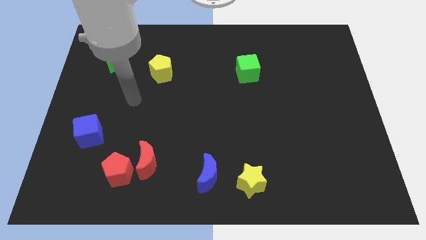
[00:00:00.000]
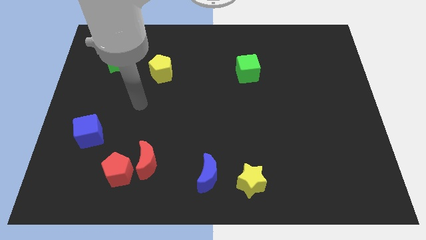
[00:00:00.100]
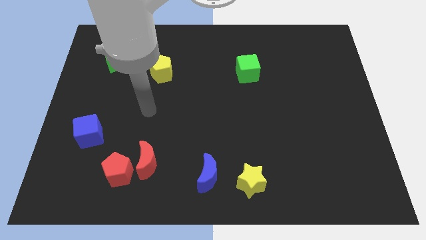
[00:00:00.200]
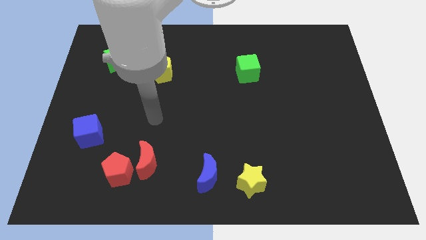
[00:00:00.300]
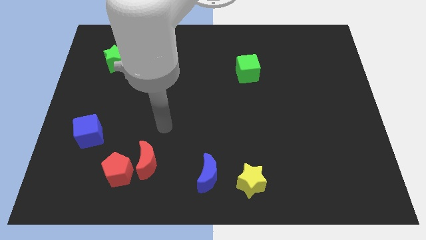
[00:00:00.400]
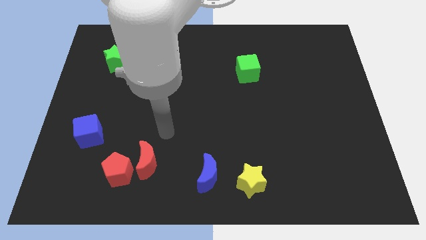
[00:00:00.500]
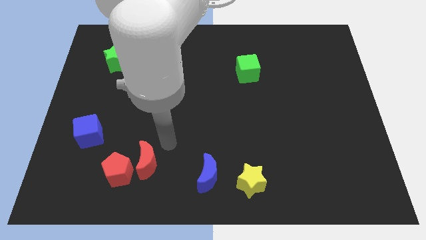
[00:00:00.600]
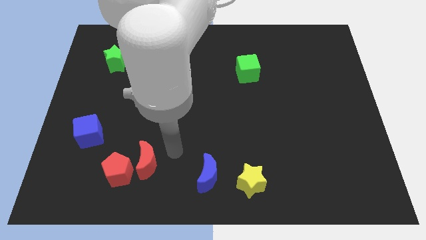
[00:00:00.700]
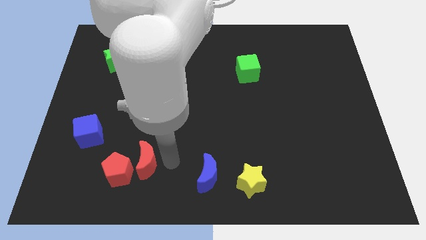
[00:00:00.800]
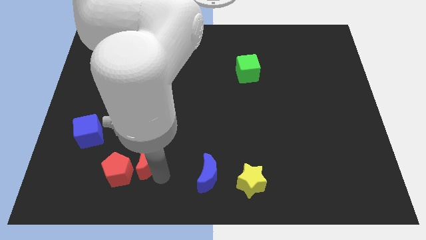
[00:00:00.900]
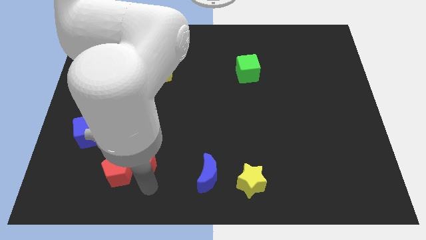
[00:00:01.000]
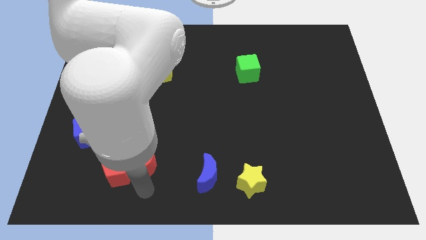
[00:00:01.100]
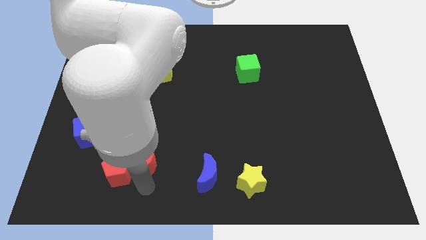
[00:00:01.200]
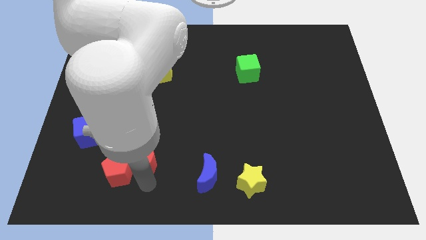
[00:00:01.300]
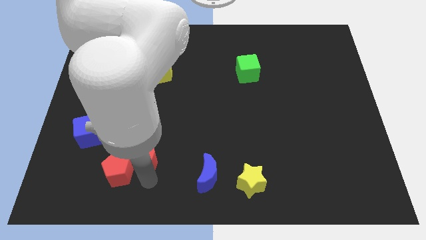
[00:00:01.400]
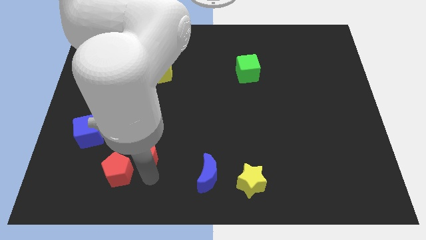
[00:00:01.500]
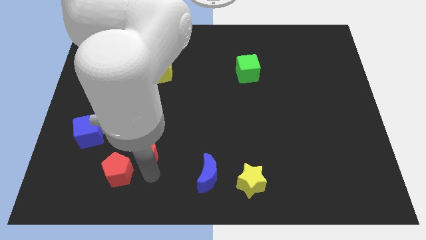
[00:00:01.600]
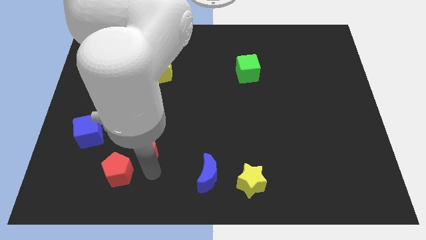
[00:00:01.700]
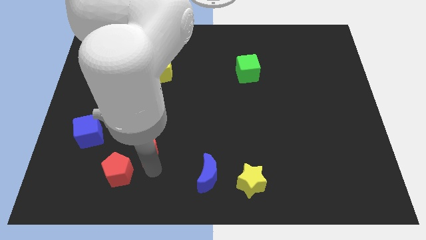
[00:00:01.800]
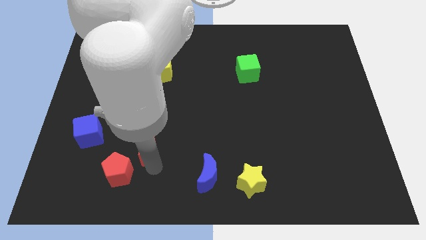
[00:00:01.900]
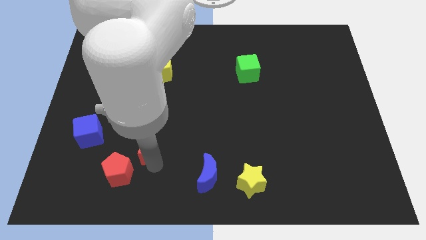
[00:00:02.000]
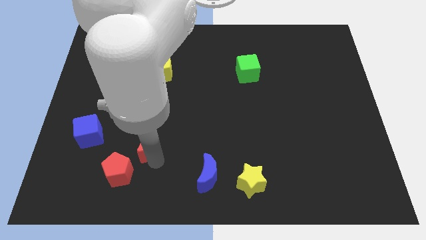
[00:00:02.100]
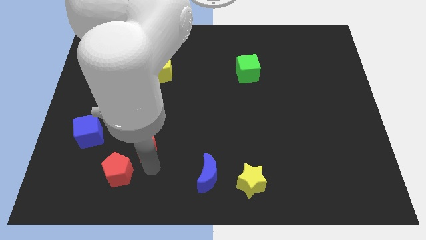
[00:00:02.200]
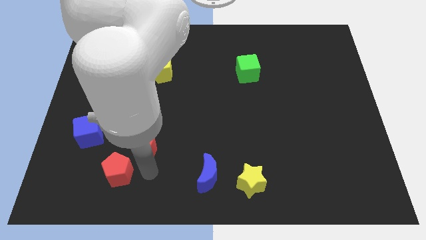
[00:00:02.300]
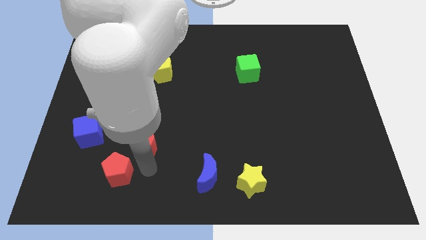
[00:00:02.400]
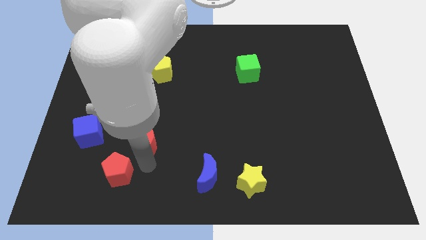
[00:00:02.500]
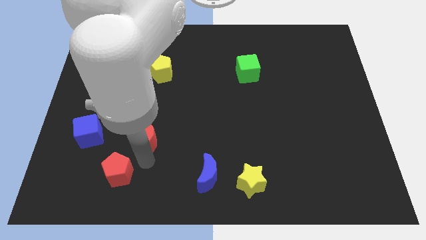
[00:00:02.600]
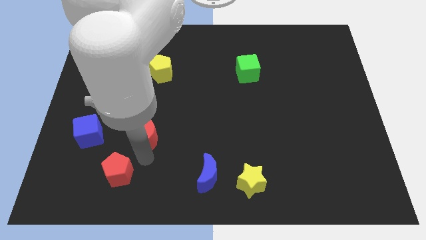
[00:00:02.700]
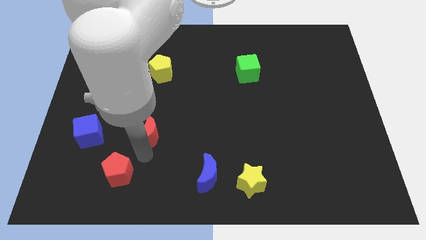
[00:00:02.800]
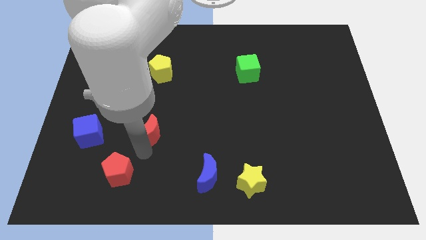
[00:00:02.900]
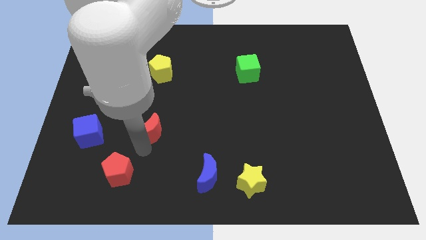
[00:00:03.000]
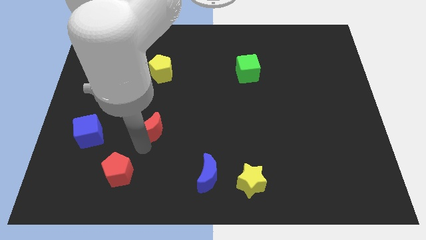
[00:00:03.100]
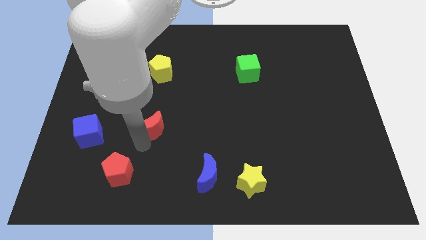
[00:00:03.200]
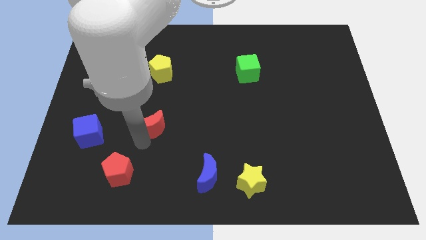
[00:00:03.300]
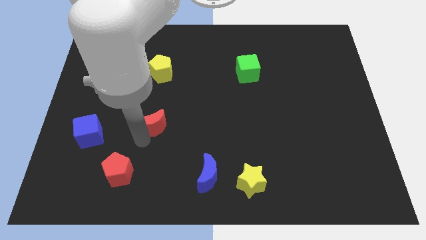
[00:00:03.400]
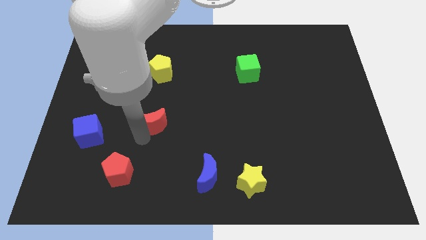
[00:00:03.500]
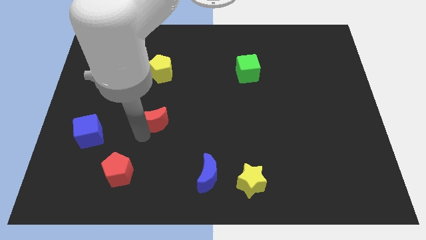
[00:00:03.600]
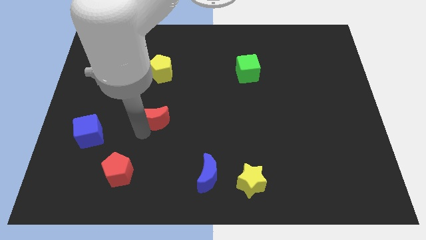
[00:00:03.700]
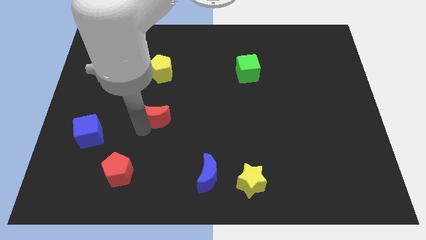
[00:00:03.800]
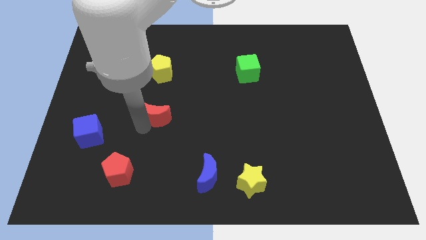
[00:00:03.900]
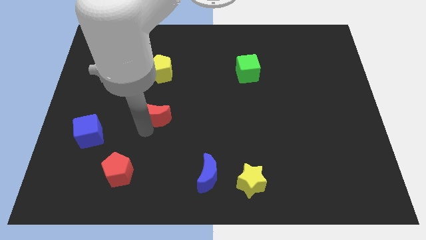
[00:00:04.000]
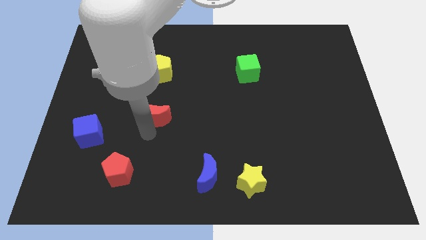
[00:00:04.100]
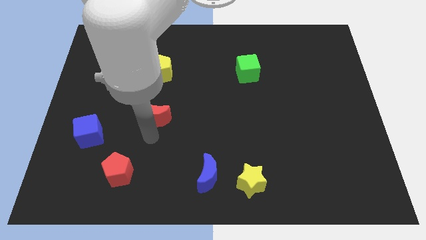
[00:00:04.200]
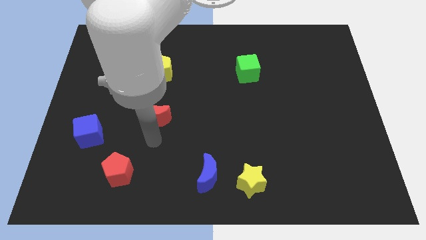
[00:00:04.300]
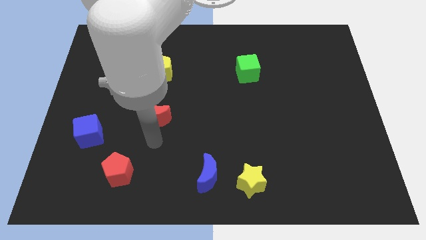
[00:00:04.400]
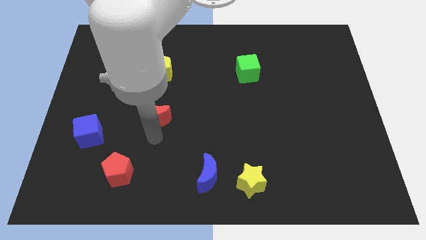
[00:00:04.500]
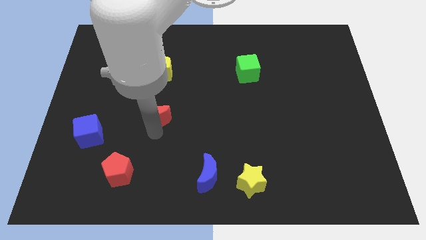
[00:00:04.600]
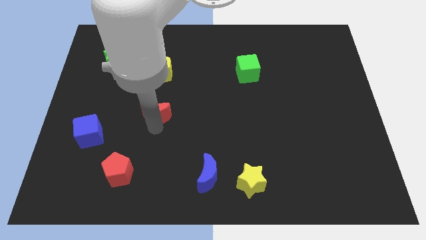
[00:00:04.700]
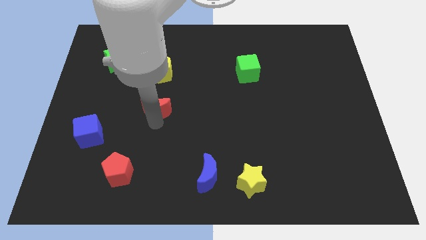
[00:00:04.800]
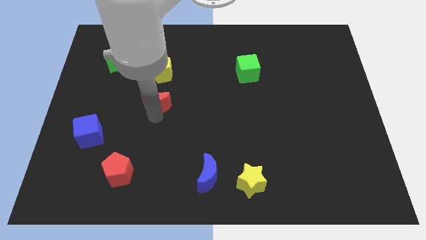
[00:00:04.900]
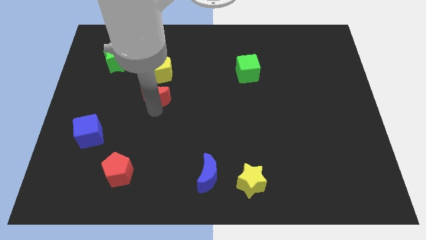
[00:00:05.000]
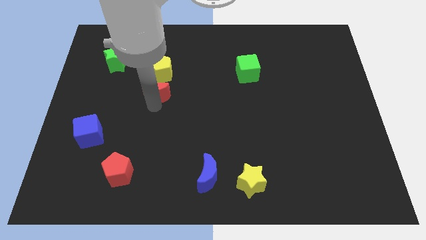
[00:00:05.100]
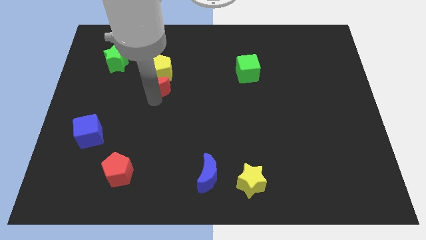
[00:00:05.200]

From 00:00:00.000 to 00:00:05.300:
move the red moon next to the yellow pentagon

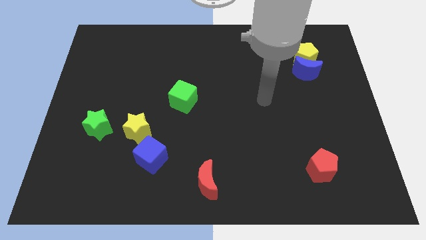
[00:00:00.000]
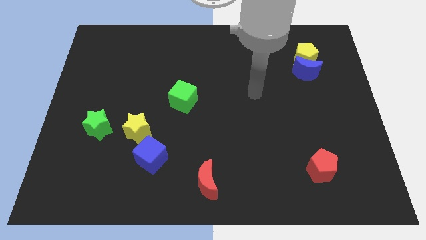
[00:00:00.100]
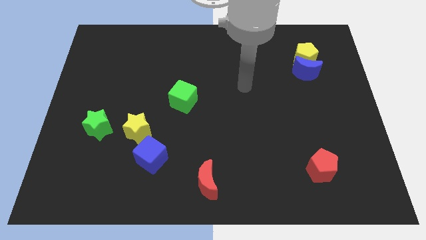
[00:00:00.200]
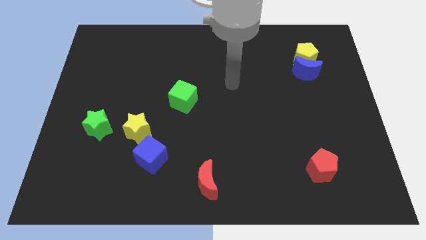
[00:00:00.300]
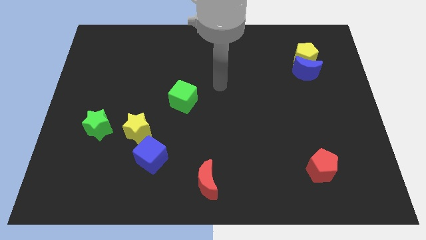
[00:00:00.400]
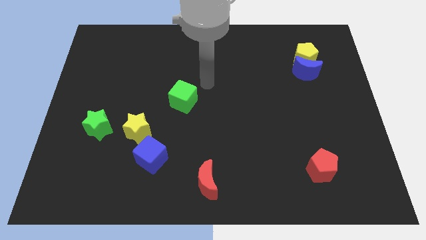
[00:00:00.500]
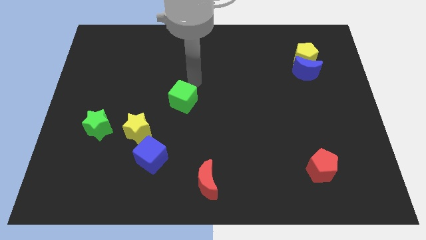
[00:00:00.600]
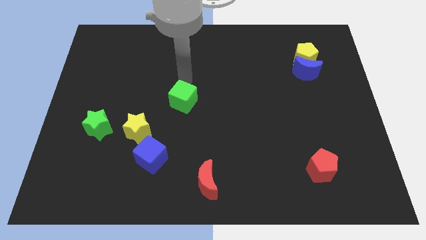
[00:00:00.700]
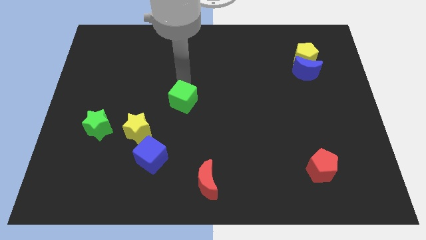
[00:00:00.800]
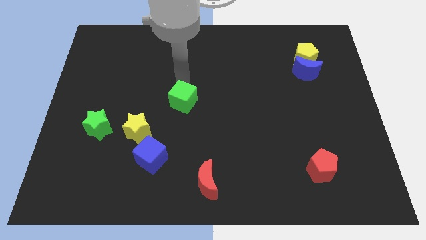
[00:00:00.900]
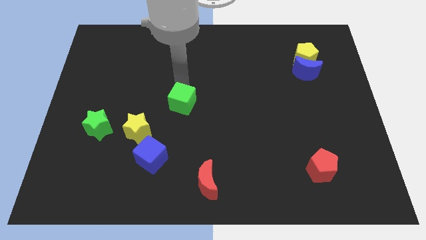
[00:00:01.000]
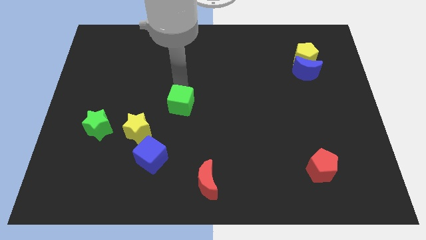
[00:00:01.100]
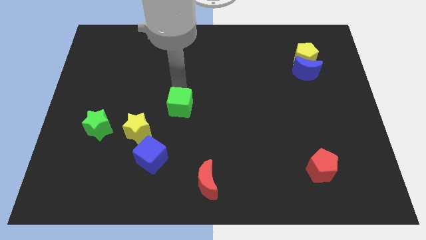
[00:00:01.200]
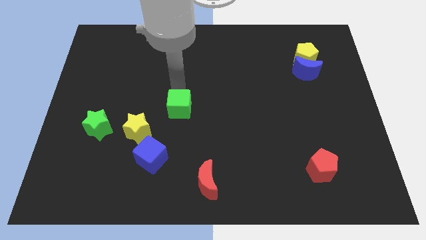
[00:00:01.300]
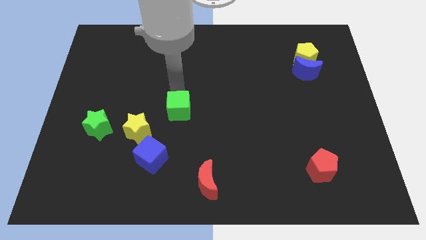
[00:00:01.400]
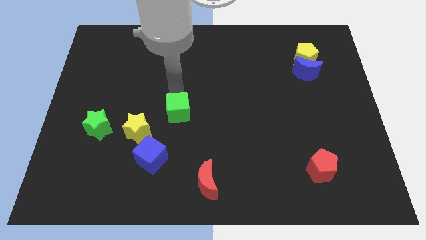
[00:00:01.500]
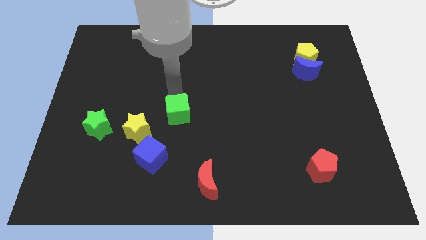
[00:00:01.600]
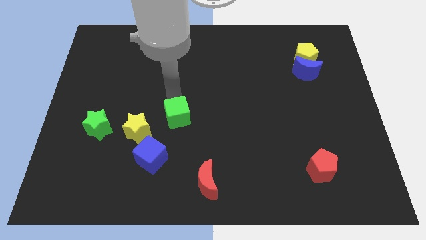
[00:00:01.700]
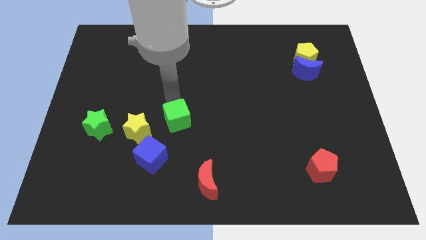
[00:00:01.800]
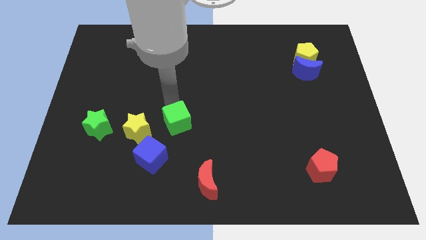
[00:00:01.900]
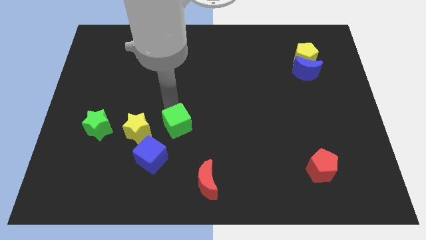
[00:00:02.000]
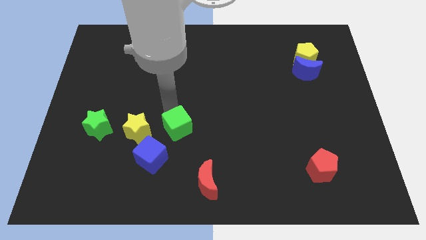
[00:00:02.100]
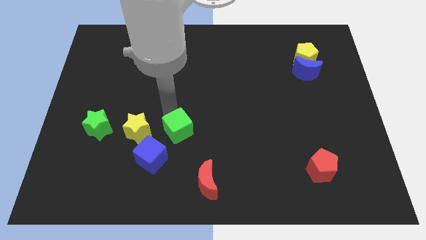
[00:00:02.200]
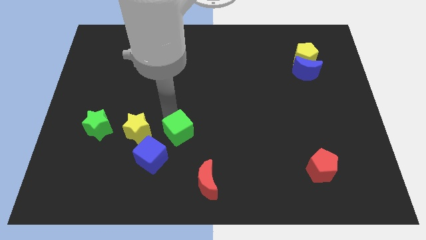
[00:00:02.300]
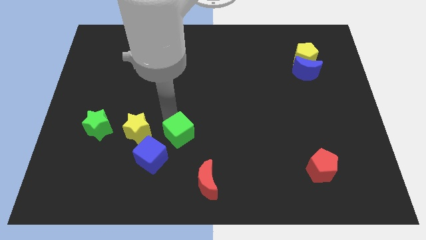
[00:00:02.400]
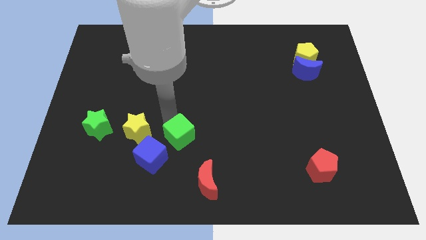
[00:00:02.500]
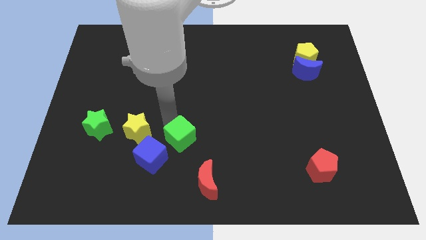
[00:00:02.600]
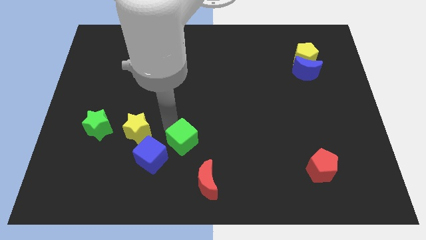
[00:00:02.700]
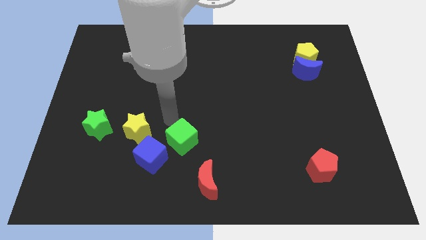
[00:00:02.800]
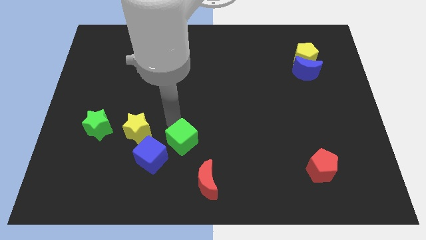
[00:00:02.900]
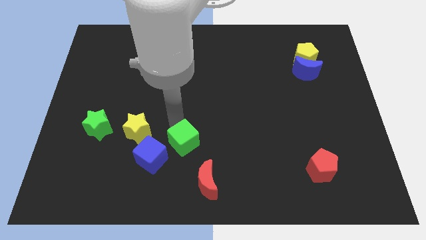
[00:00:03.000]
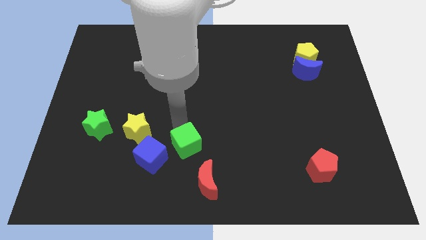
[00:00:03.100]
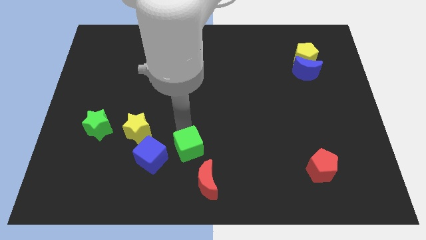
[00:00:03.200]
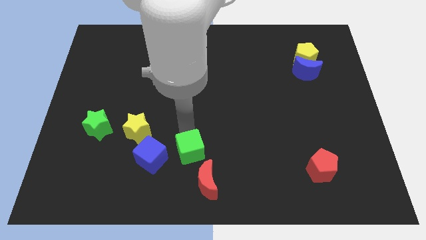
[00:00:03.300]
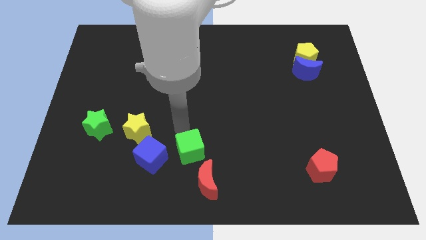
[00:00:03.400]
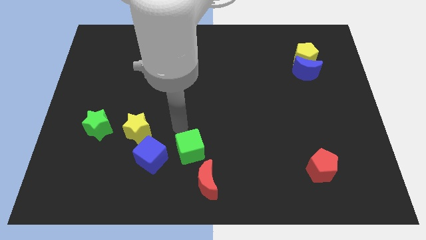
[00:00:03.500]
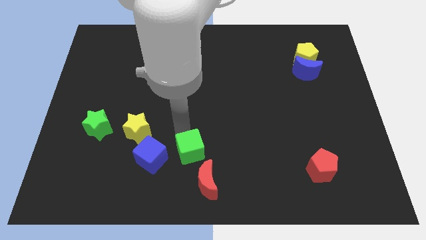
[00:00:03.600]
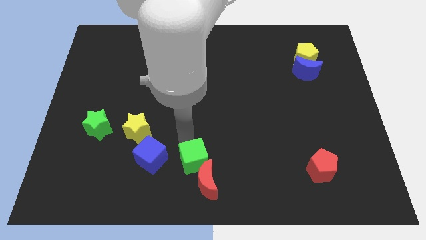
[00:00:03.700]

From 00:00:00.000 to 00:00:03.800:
put the green cube to the red moon
